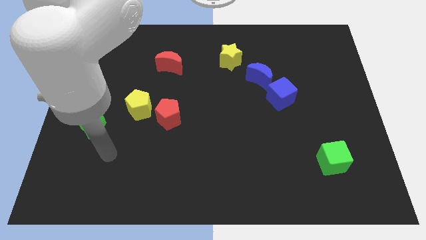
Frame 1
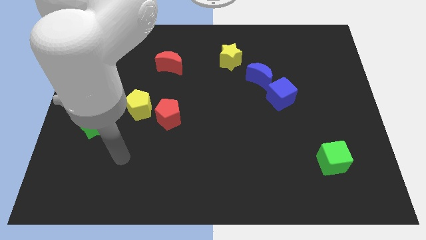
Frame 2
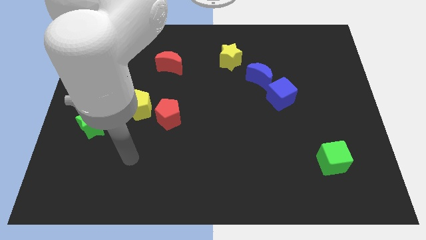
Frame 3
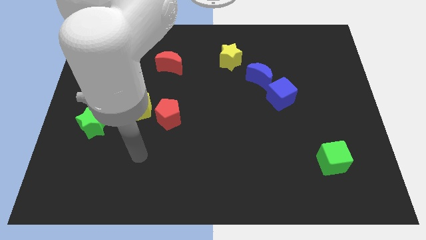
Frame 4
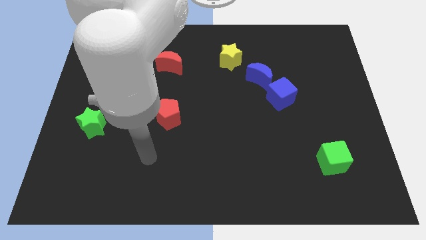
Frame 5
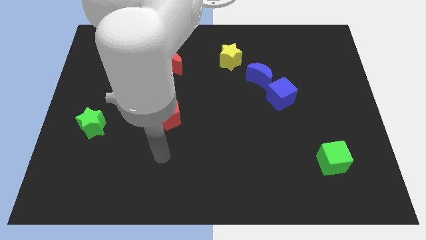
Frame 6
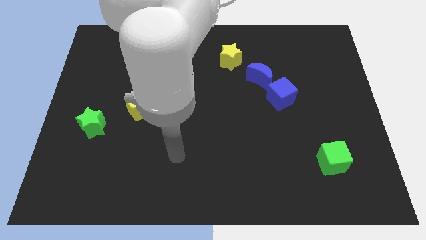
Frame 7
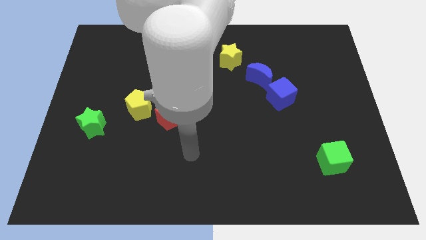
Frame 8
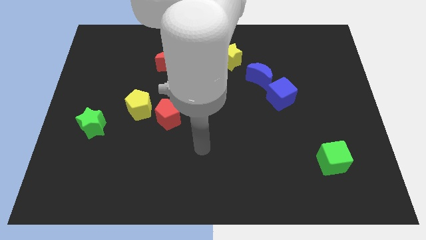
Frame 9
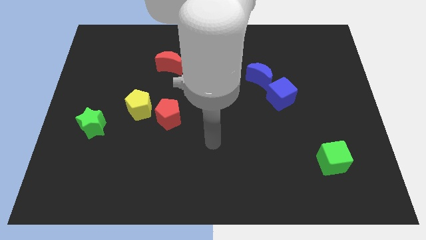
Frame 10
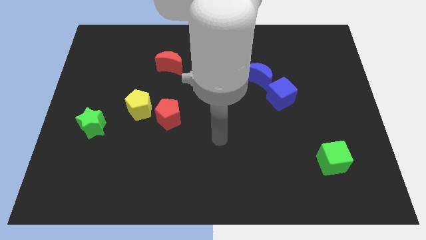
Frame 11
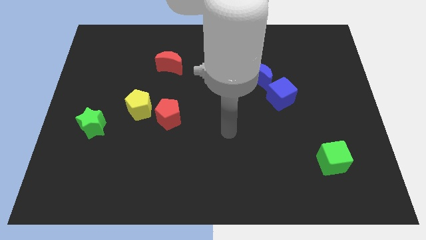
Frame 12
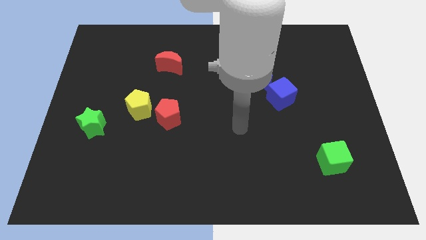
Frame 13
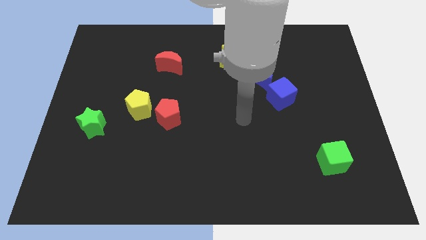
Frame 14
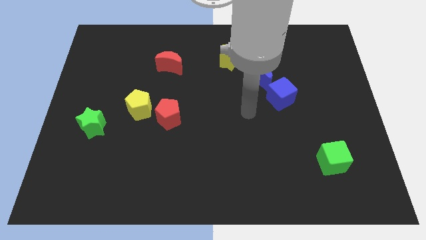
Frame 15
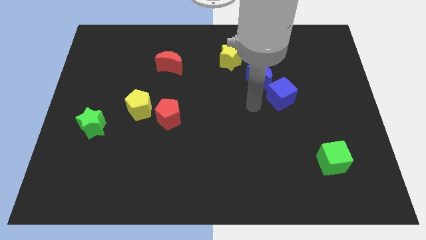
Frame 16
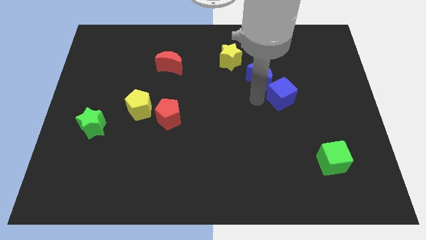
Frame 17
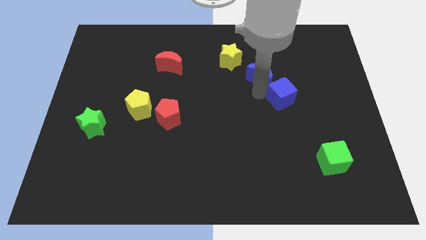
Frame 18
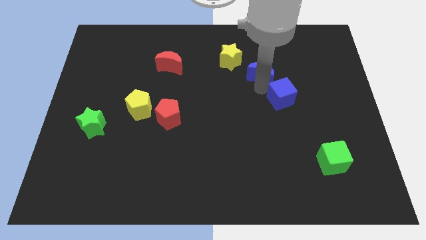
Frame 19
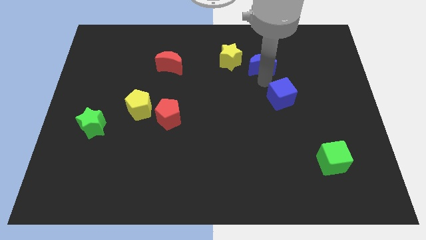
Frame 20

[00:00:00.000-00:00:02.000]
pull the blue cube apart from the blue moon

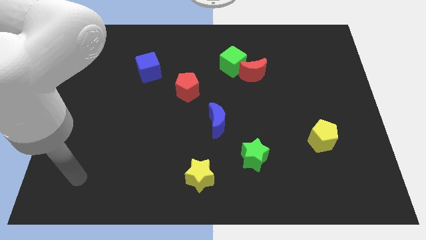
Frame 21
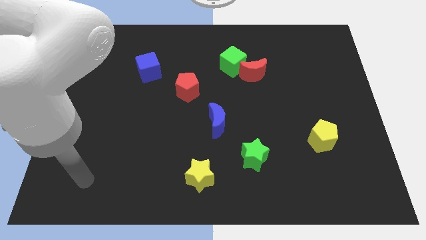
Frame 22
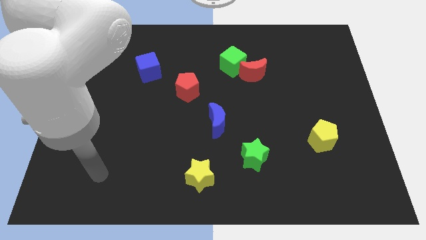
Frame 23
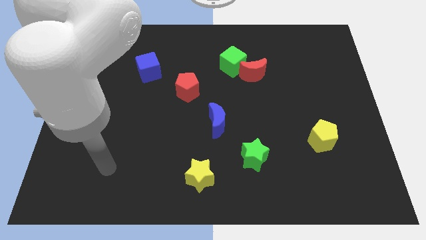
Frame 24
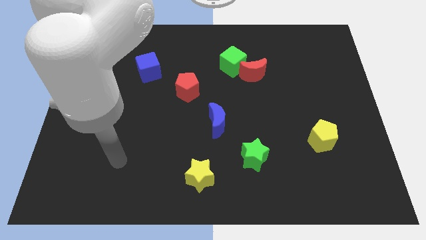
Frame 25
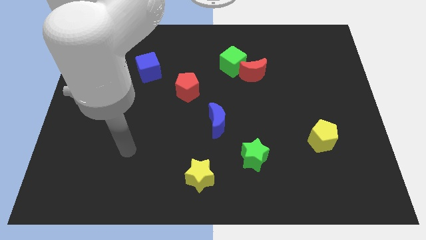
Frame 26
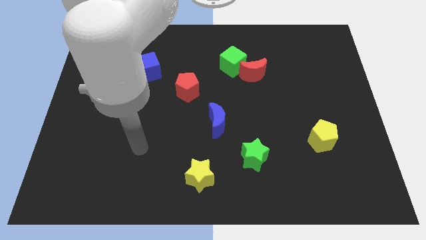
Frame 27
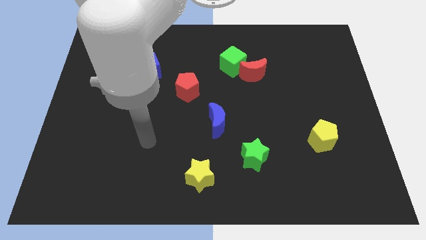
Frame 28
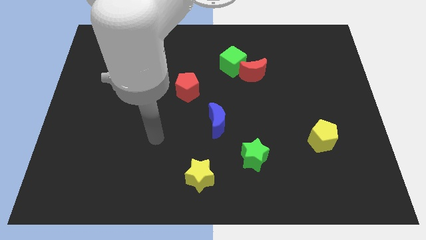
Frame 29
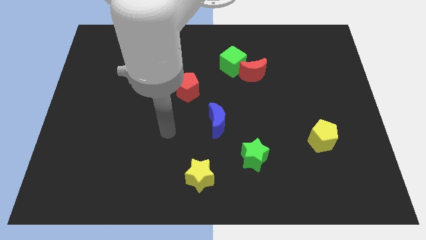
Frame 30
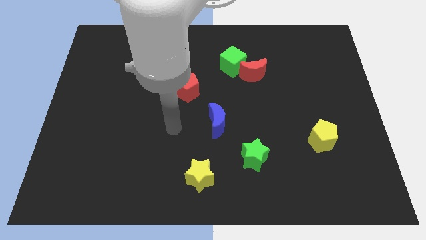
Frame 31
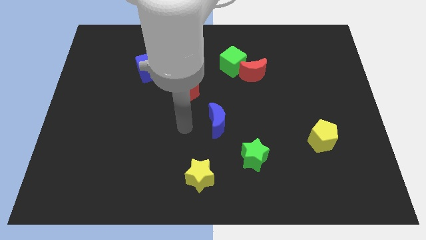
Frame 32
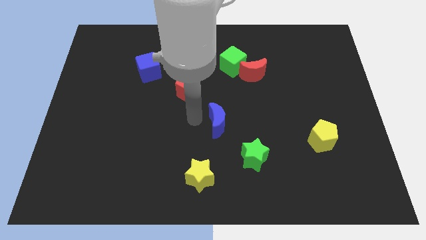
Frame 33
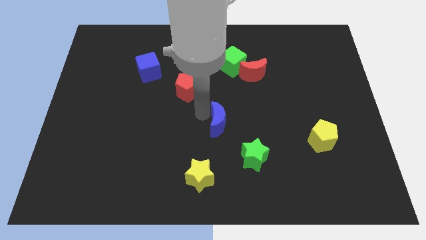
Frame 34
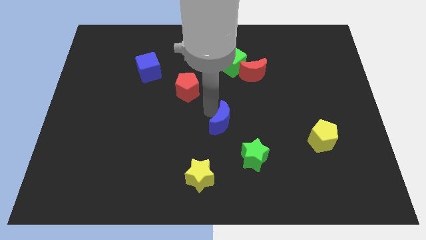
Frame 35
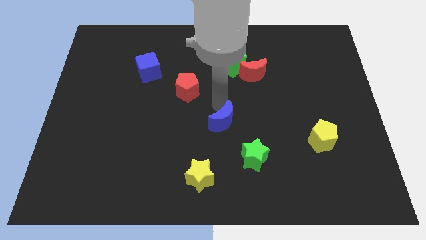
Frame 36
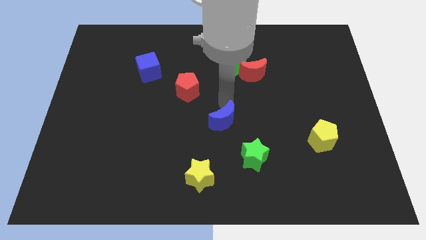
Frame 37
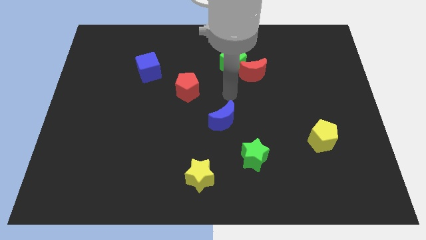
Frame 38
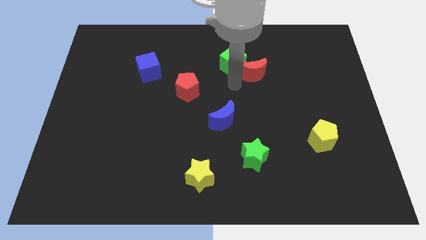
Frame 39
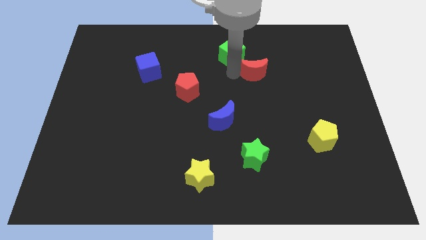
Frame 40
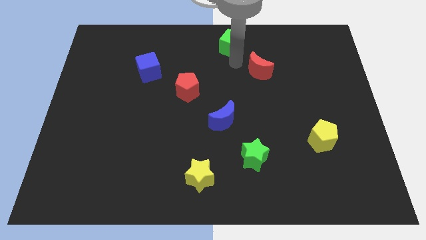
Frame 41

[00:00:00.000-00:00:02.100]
pull the red moon apart from the green cube

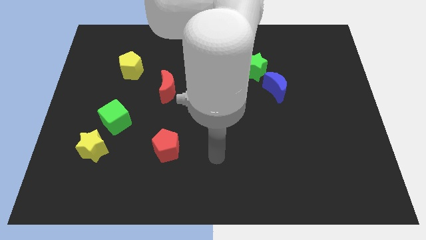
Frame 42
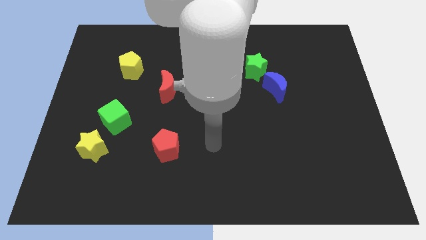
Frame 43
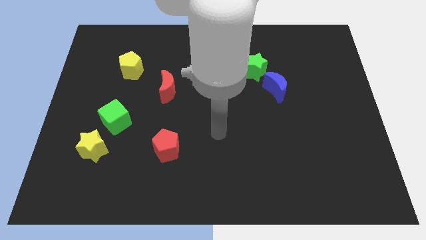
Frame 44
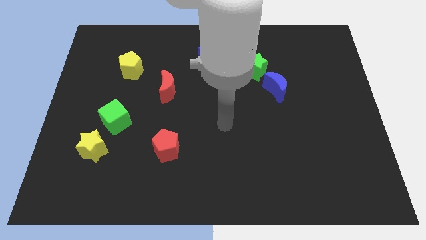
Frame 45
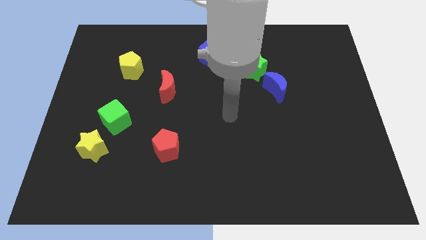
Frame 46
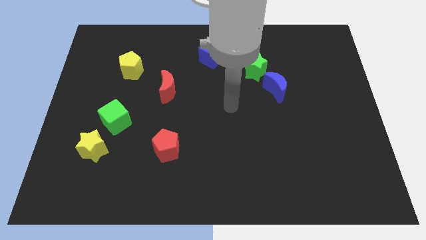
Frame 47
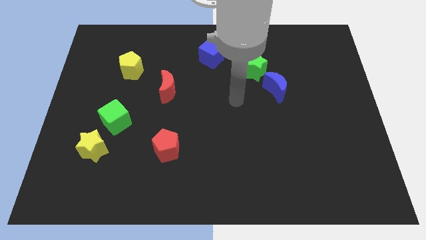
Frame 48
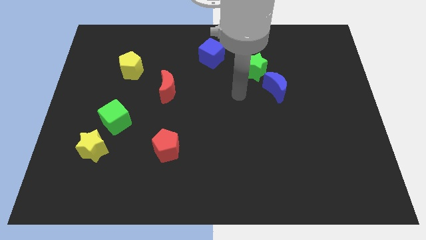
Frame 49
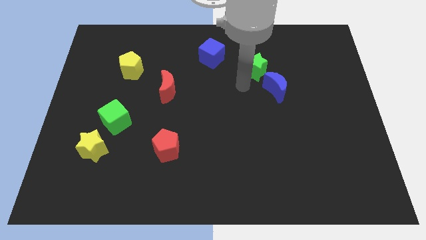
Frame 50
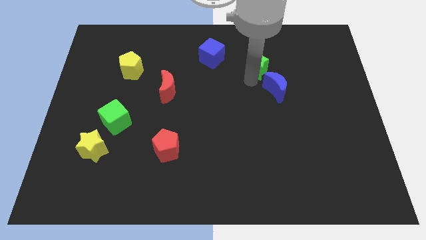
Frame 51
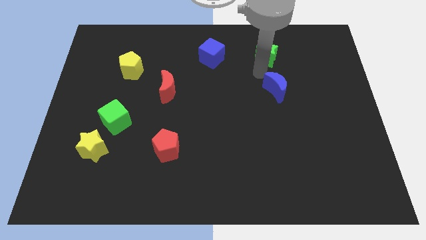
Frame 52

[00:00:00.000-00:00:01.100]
move the blue moon away from the green star

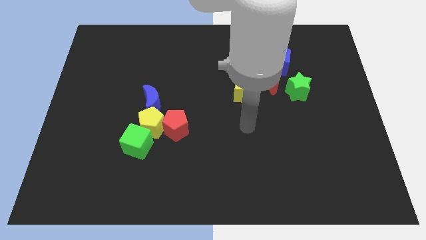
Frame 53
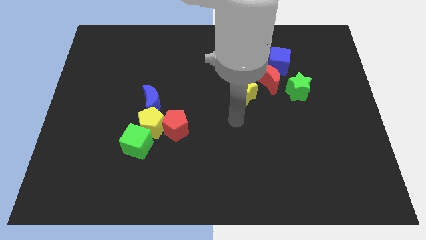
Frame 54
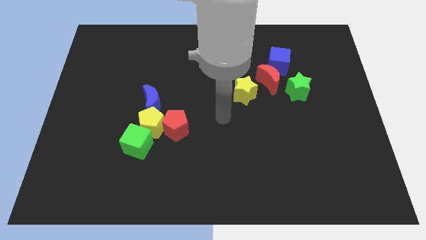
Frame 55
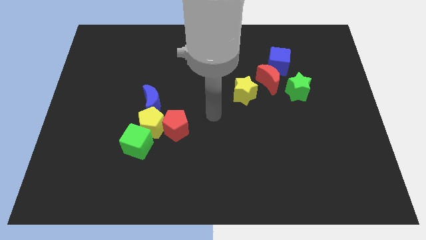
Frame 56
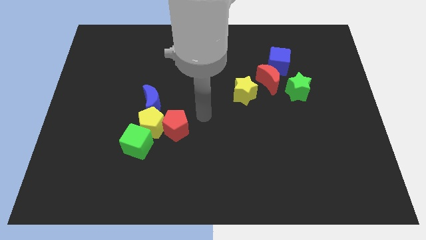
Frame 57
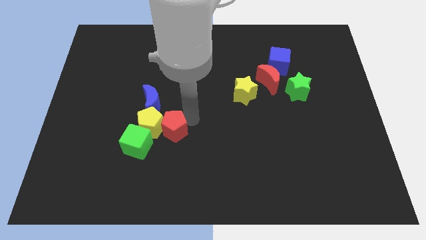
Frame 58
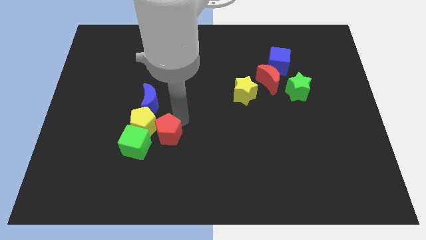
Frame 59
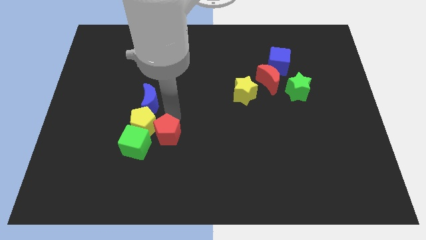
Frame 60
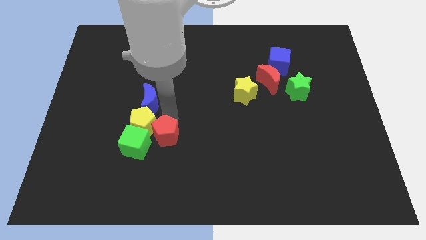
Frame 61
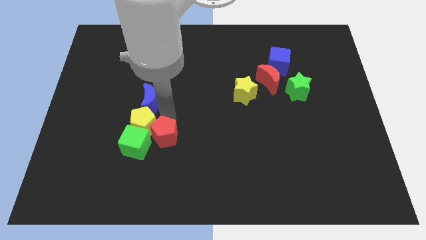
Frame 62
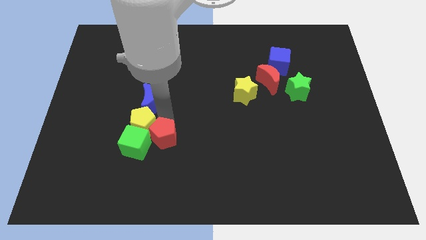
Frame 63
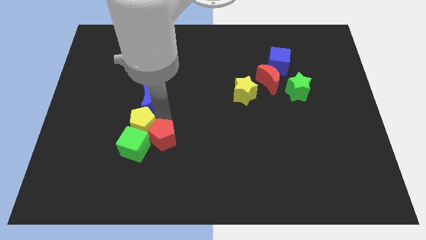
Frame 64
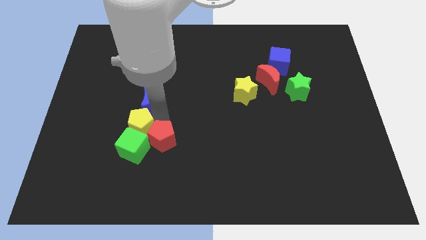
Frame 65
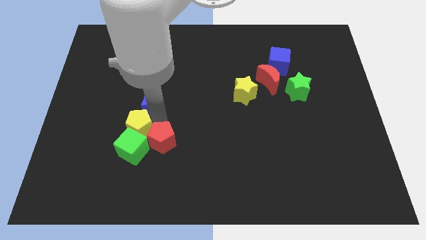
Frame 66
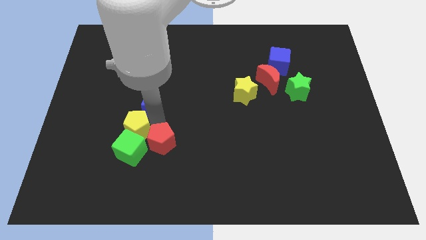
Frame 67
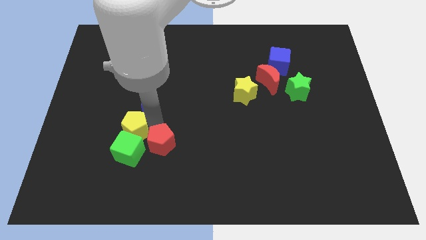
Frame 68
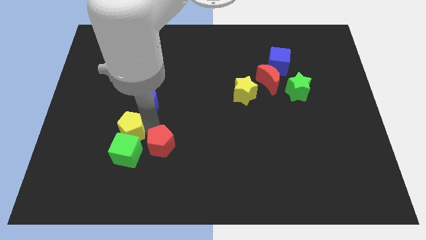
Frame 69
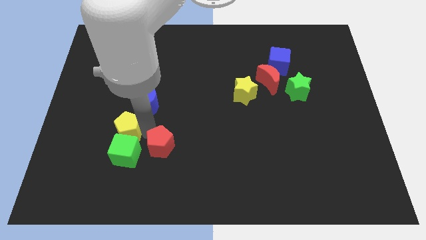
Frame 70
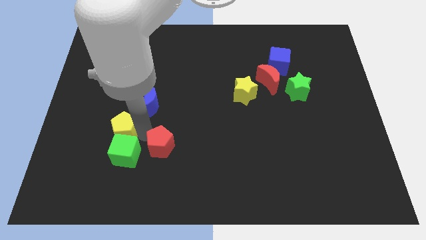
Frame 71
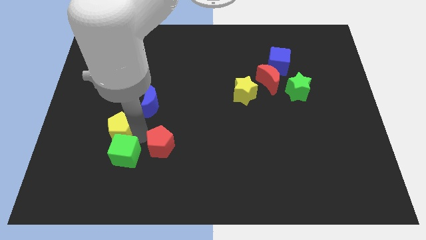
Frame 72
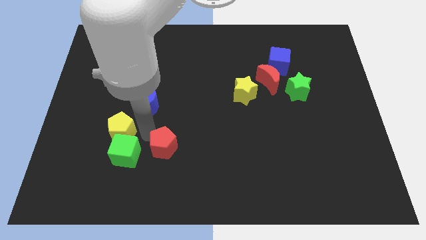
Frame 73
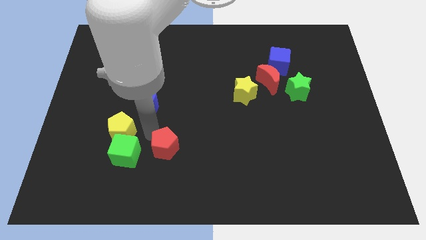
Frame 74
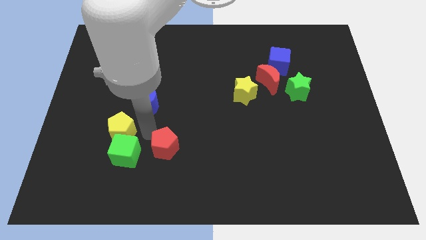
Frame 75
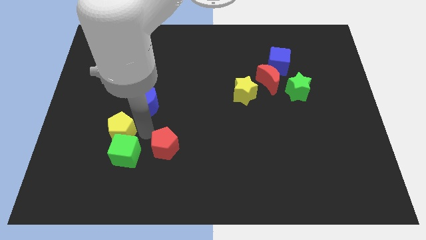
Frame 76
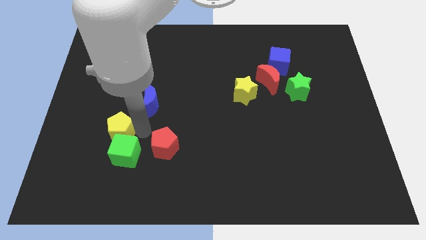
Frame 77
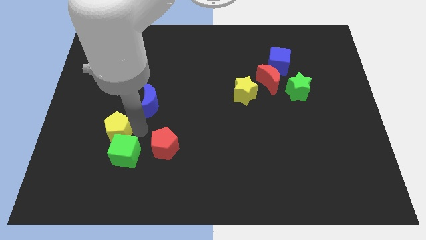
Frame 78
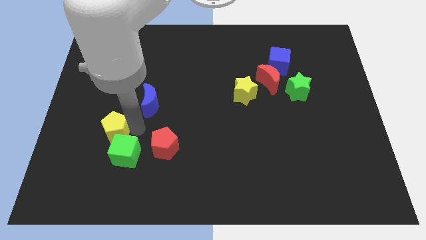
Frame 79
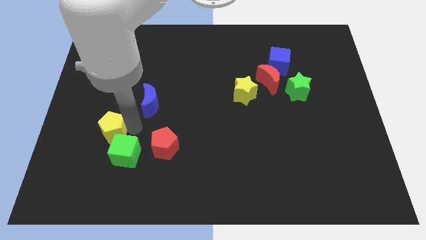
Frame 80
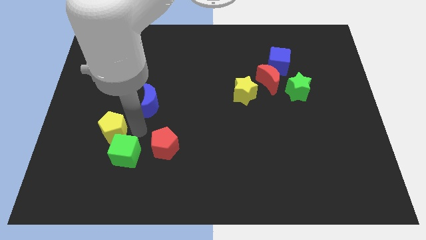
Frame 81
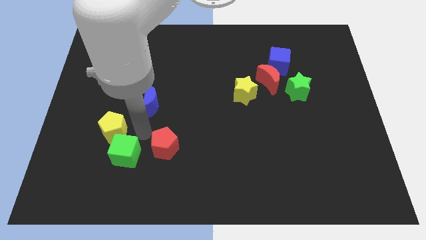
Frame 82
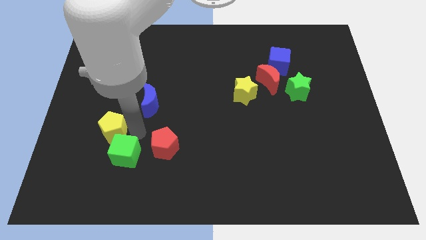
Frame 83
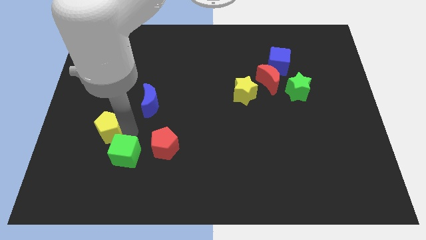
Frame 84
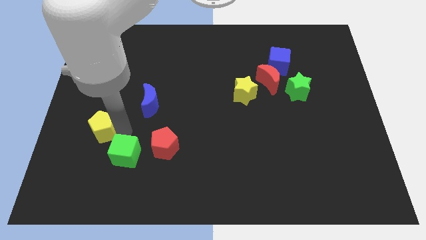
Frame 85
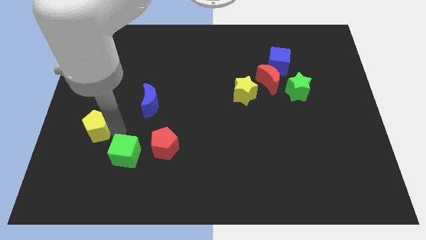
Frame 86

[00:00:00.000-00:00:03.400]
separate the yellow pentagon from the red pentagon, green cube, and blue moon

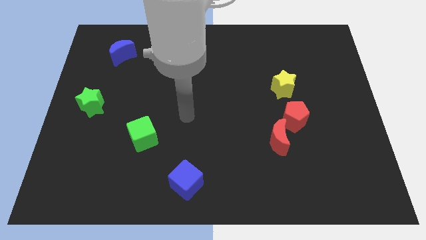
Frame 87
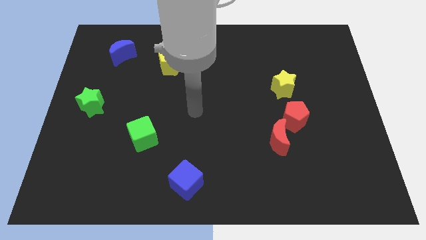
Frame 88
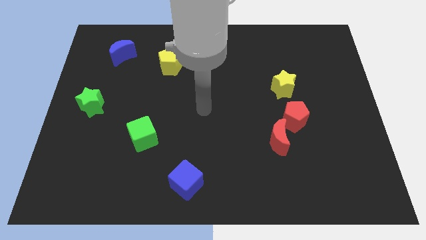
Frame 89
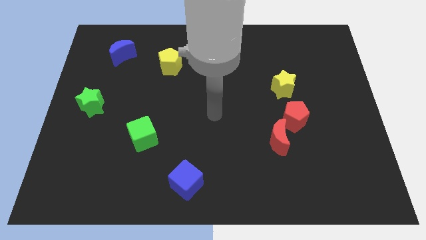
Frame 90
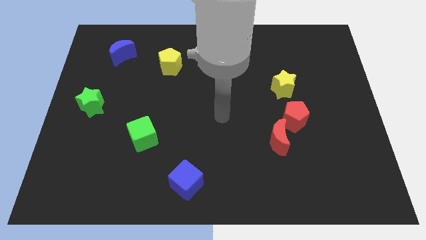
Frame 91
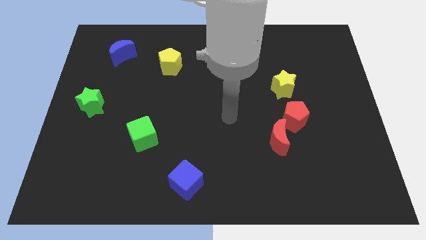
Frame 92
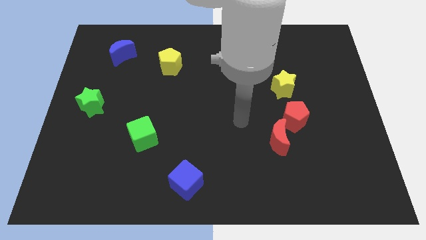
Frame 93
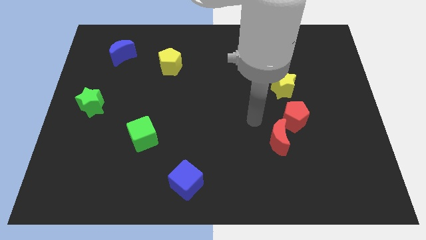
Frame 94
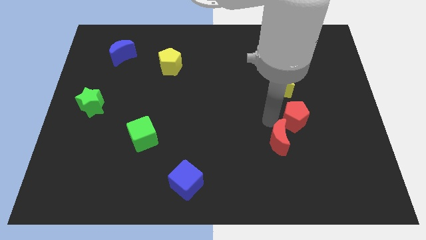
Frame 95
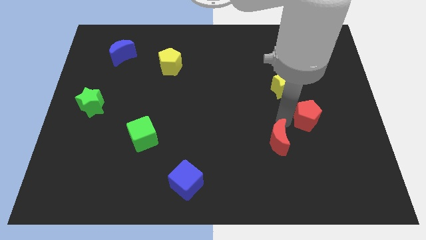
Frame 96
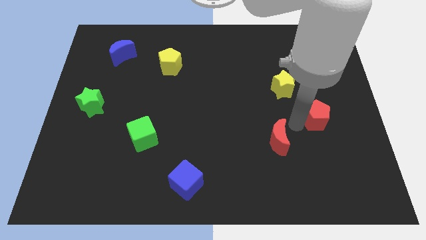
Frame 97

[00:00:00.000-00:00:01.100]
move the red moon away from the red pentagon
